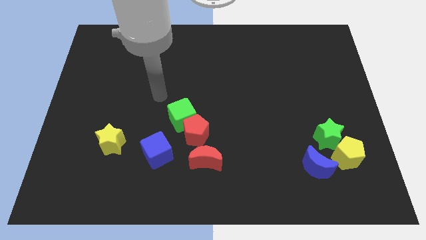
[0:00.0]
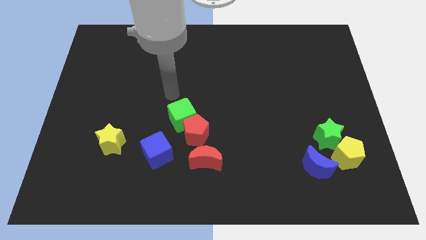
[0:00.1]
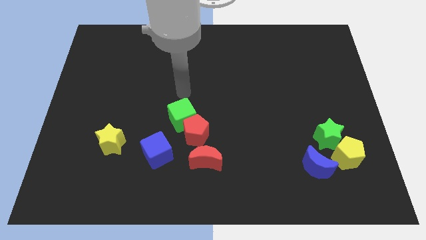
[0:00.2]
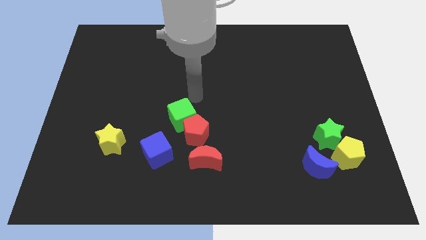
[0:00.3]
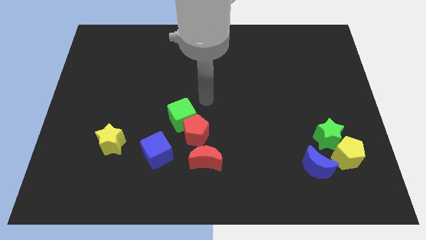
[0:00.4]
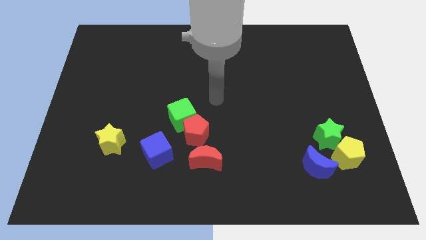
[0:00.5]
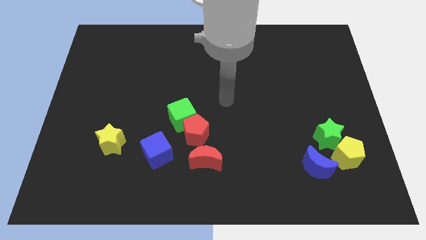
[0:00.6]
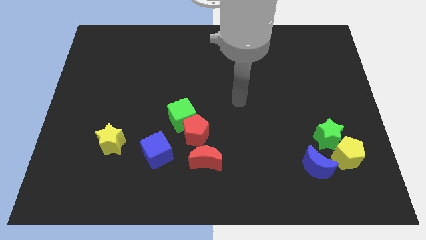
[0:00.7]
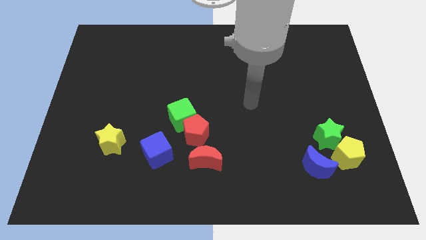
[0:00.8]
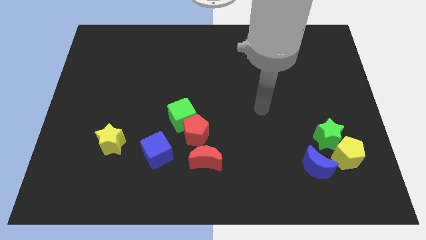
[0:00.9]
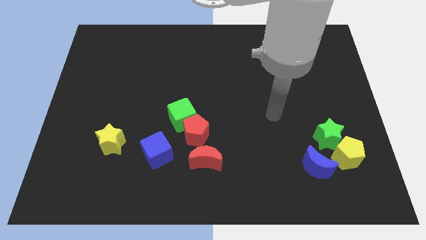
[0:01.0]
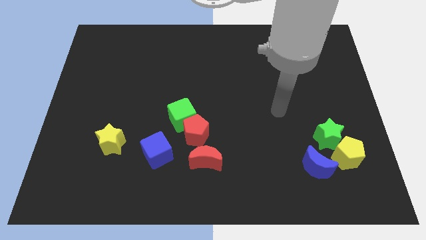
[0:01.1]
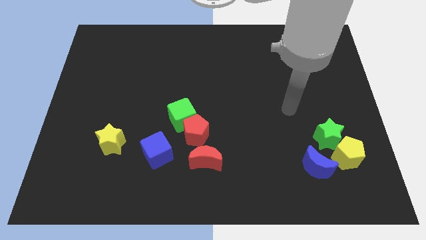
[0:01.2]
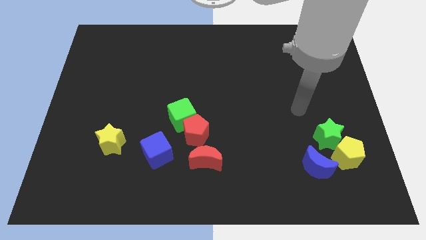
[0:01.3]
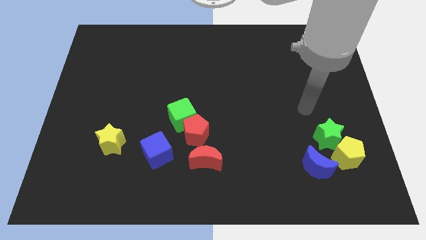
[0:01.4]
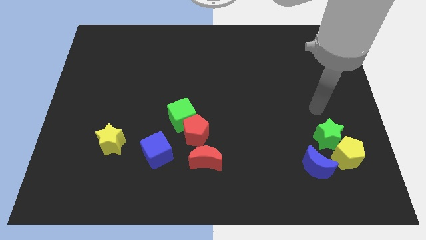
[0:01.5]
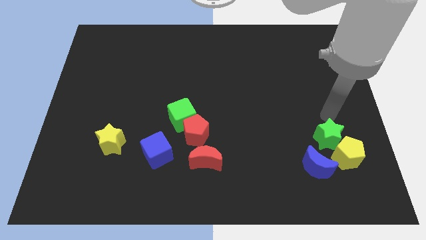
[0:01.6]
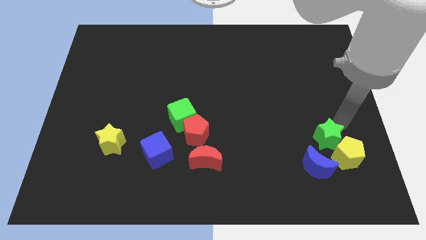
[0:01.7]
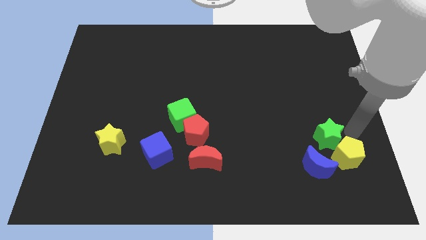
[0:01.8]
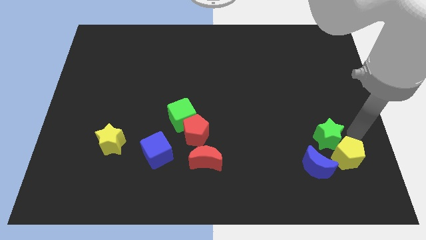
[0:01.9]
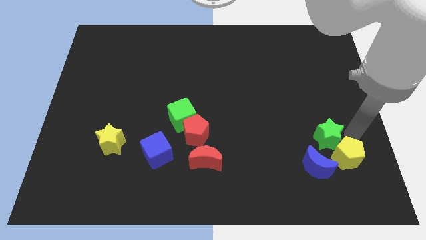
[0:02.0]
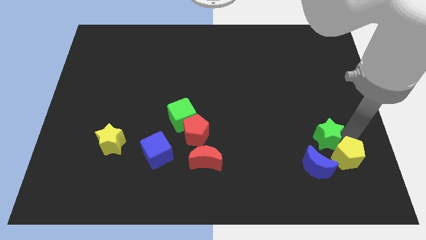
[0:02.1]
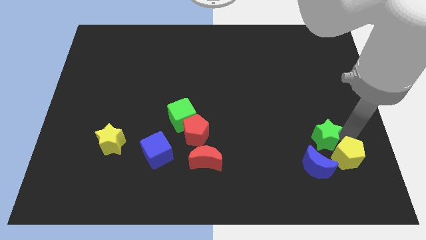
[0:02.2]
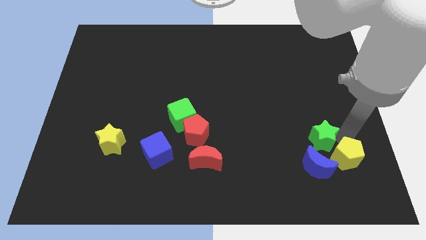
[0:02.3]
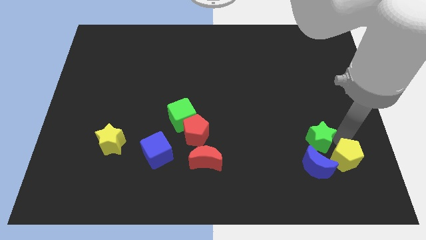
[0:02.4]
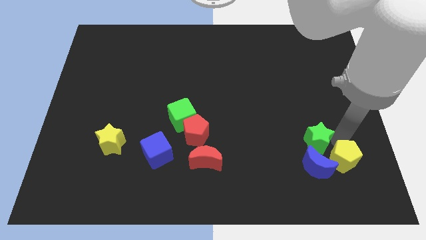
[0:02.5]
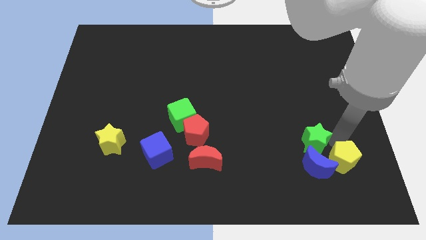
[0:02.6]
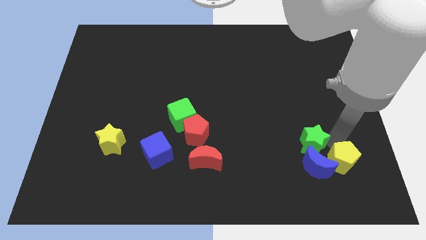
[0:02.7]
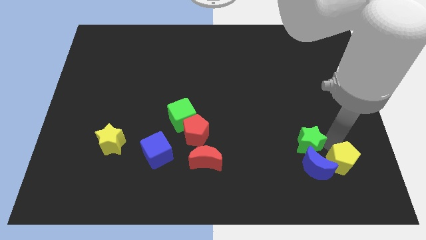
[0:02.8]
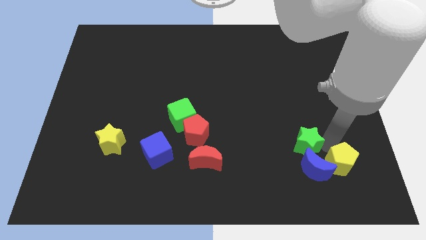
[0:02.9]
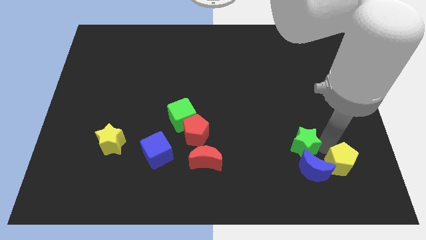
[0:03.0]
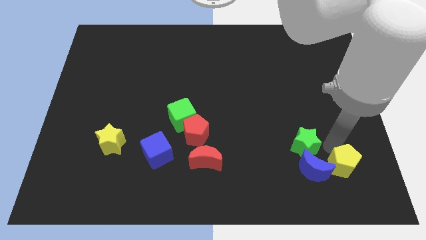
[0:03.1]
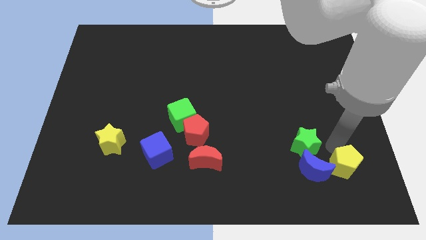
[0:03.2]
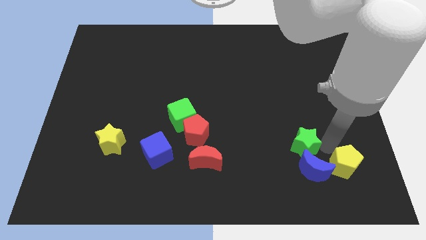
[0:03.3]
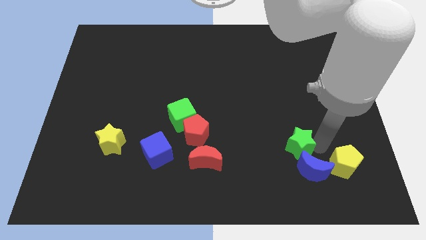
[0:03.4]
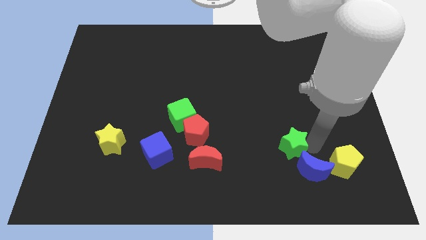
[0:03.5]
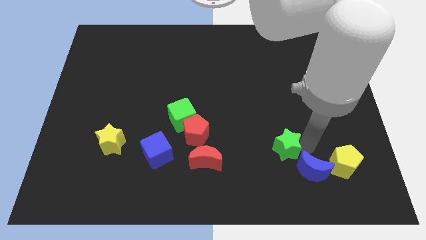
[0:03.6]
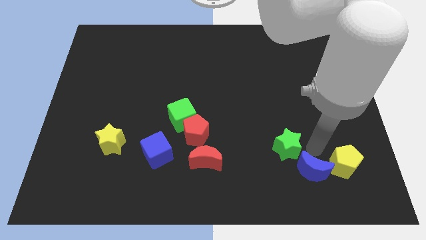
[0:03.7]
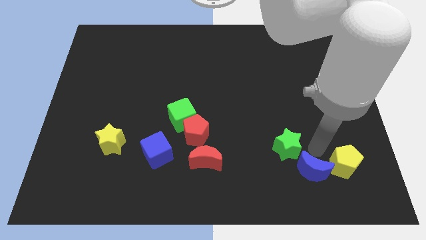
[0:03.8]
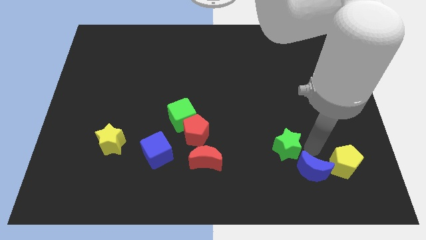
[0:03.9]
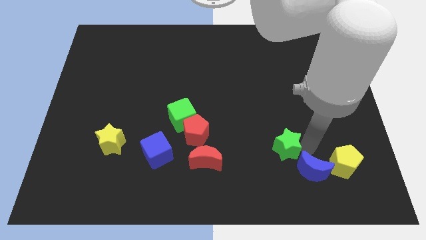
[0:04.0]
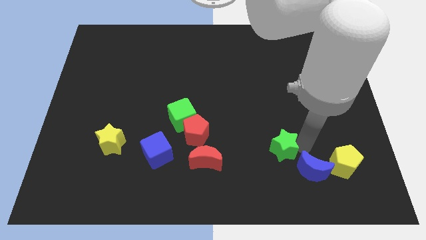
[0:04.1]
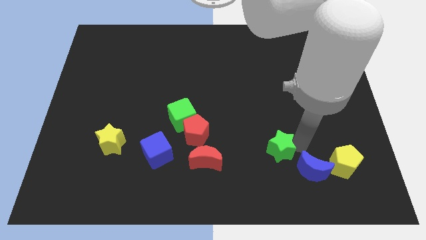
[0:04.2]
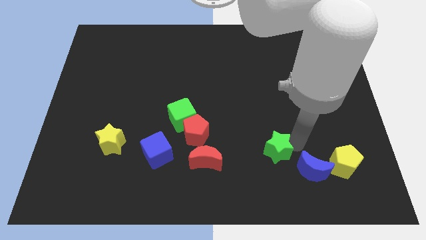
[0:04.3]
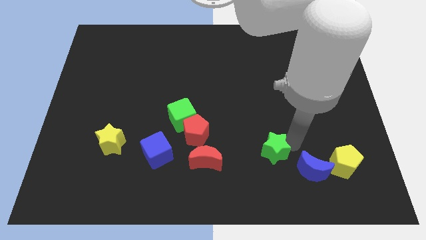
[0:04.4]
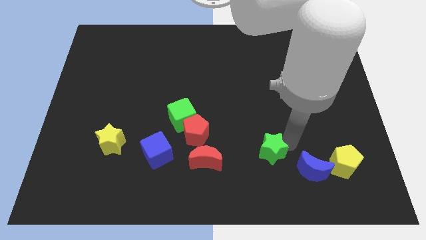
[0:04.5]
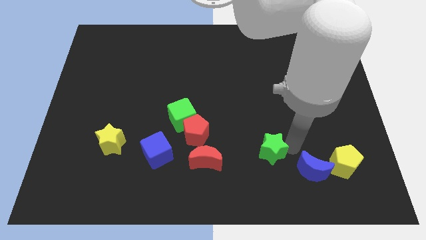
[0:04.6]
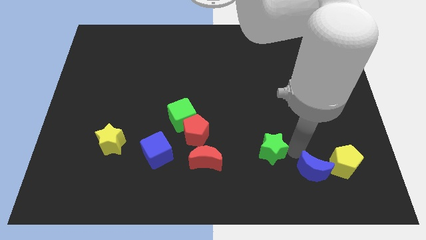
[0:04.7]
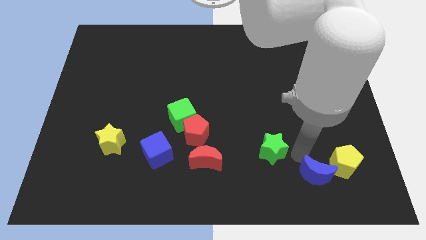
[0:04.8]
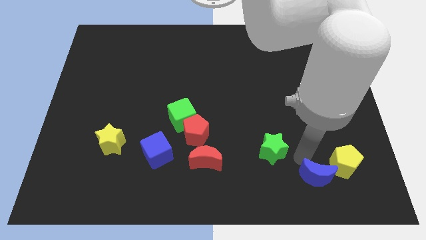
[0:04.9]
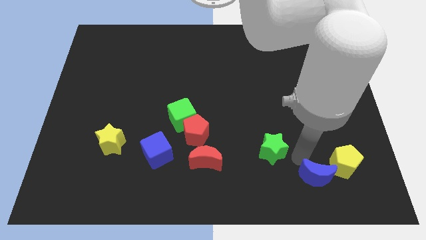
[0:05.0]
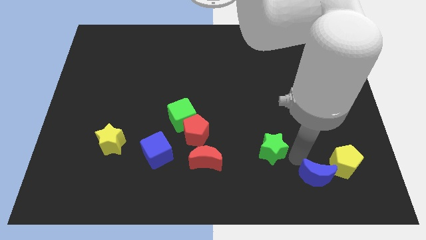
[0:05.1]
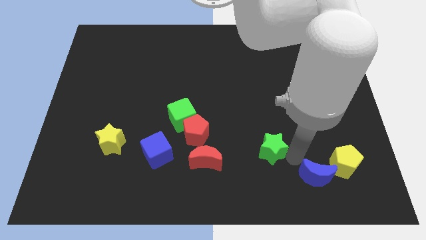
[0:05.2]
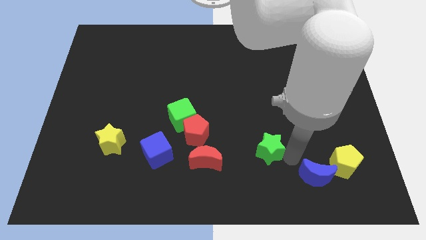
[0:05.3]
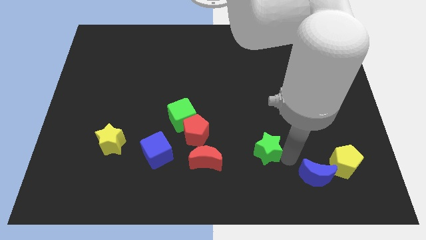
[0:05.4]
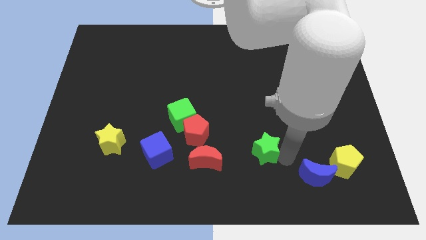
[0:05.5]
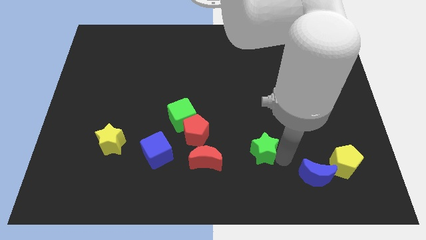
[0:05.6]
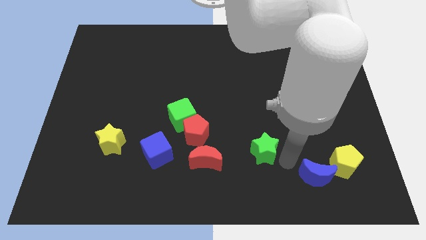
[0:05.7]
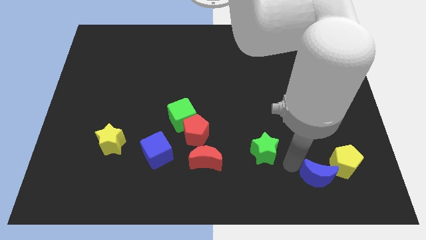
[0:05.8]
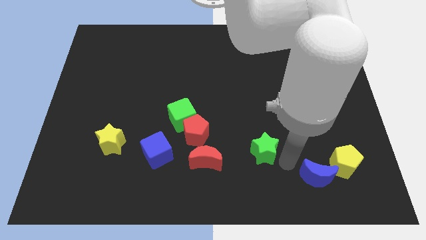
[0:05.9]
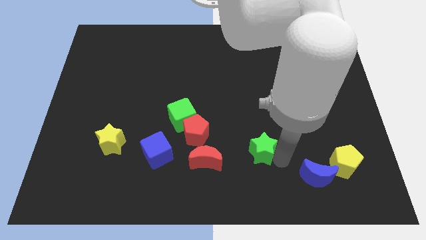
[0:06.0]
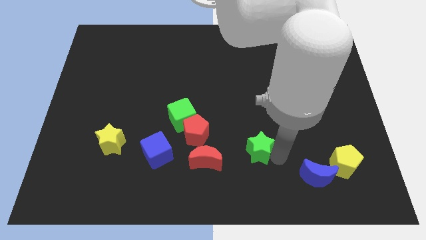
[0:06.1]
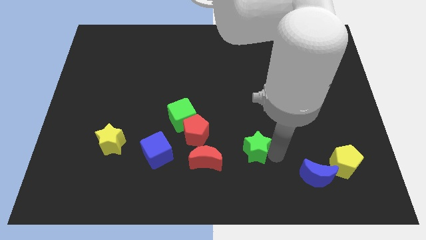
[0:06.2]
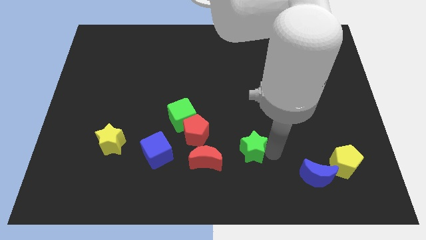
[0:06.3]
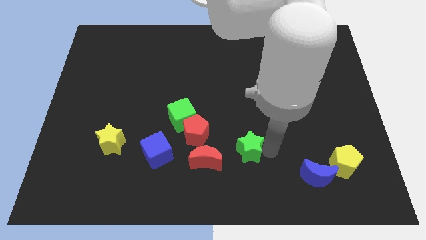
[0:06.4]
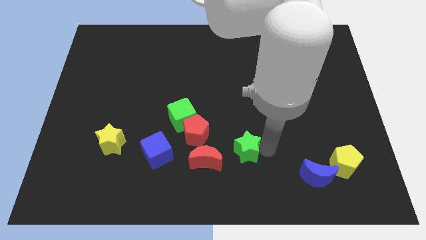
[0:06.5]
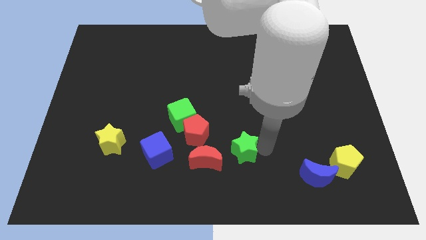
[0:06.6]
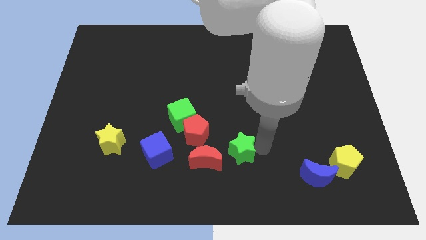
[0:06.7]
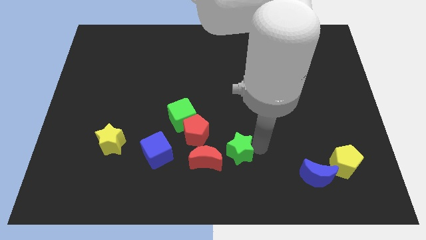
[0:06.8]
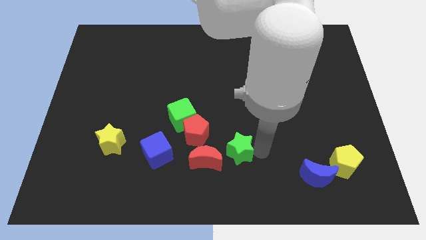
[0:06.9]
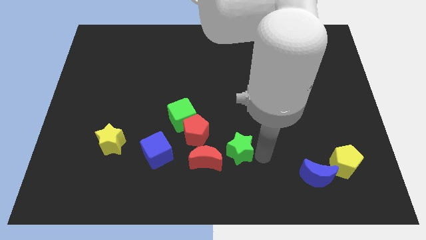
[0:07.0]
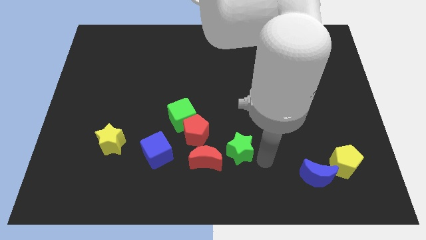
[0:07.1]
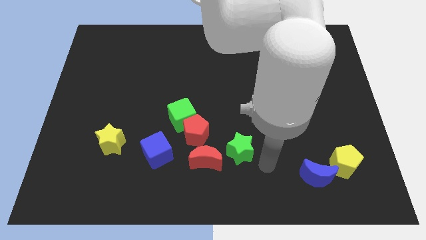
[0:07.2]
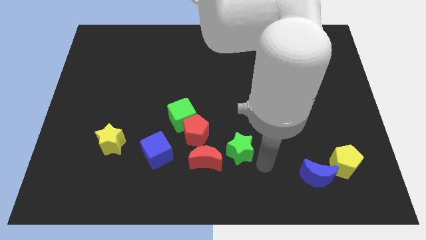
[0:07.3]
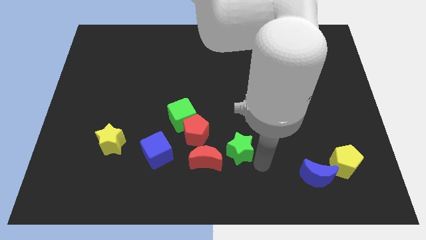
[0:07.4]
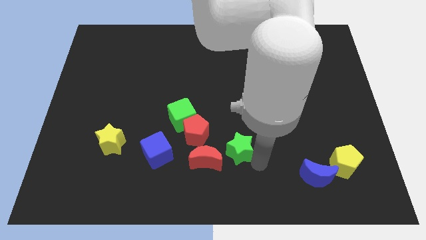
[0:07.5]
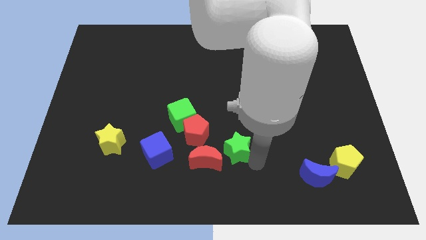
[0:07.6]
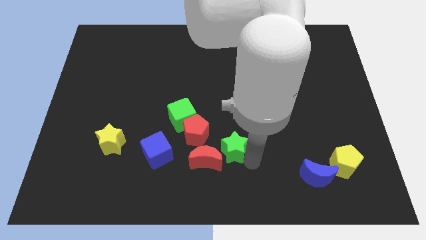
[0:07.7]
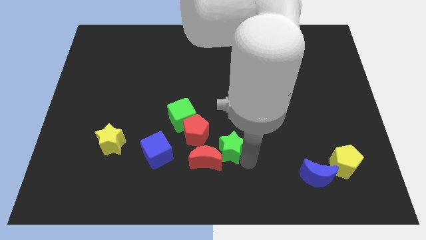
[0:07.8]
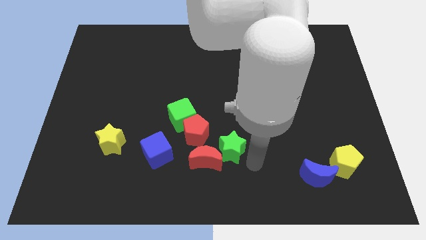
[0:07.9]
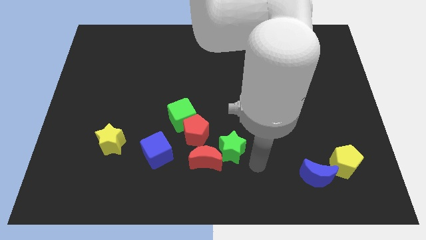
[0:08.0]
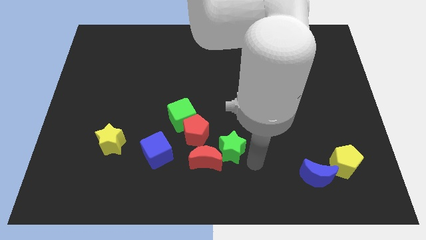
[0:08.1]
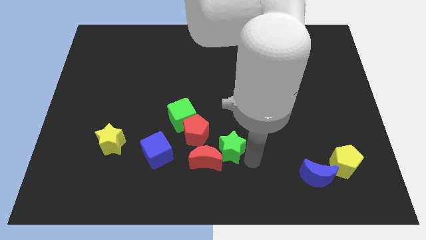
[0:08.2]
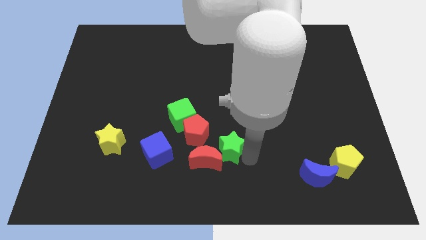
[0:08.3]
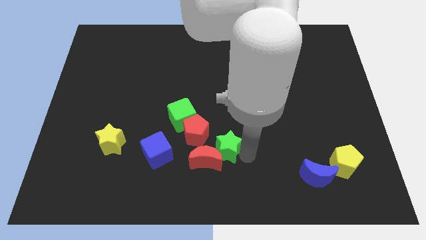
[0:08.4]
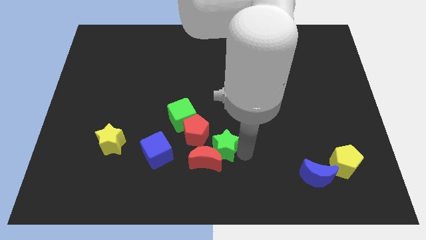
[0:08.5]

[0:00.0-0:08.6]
slide the green star to the bottom right side of the green cube
